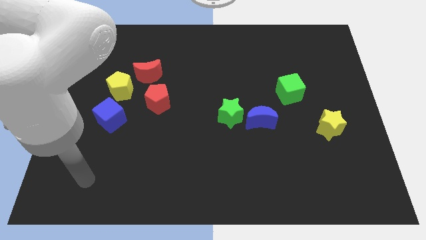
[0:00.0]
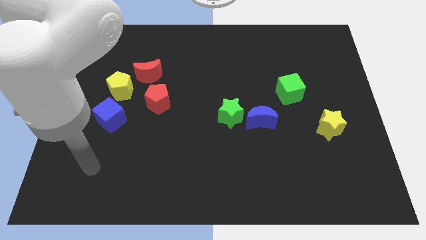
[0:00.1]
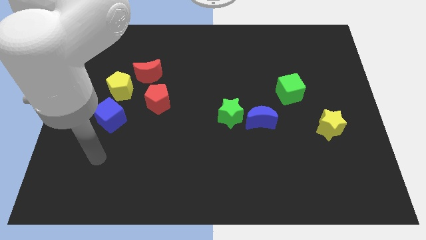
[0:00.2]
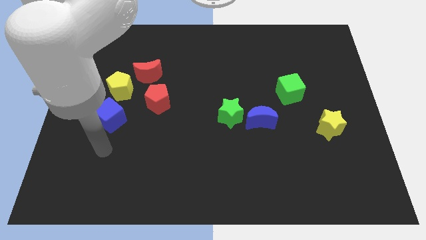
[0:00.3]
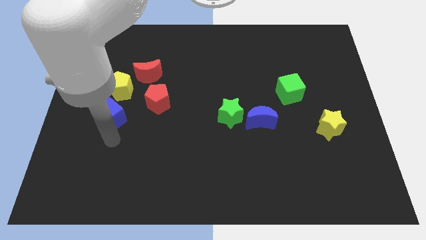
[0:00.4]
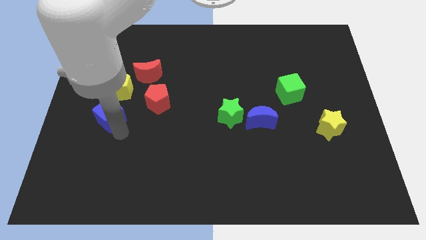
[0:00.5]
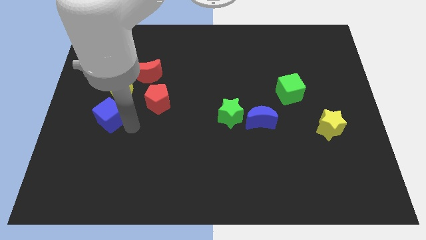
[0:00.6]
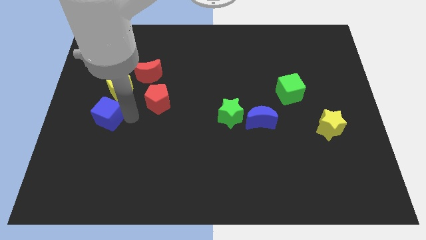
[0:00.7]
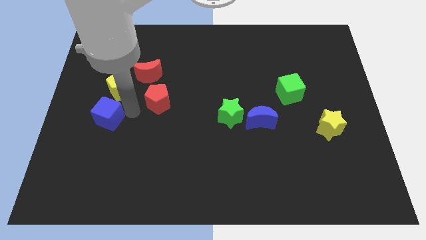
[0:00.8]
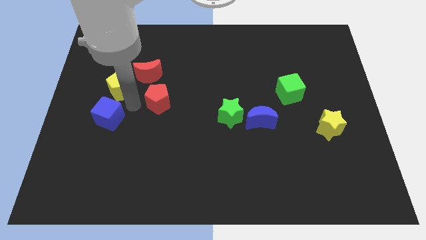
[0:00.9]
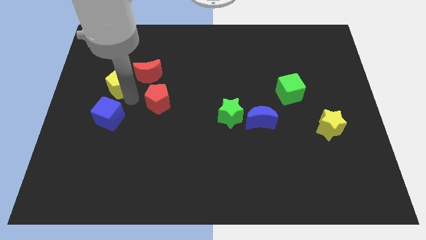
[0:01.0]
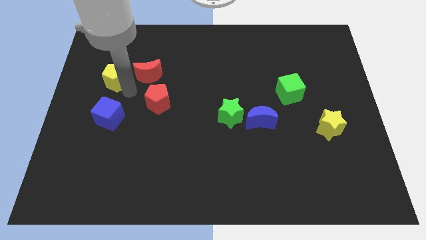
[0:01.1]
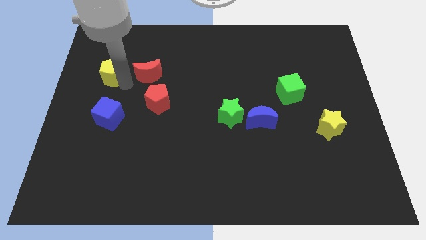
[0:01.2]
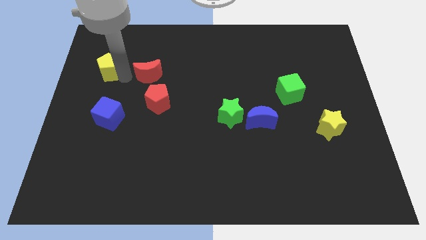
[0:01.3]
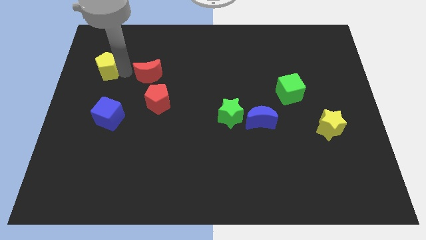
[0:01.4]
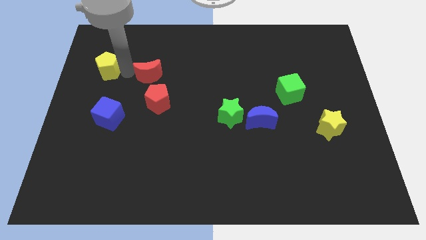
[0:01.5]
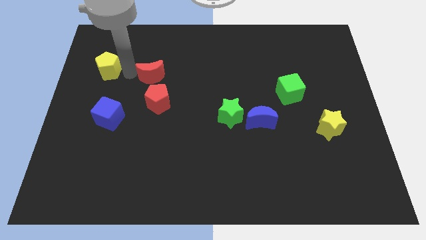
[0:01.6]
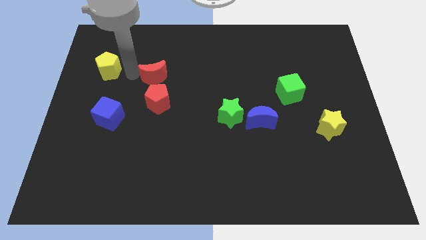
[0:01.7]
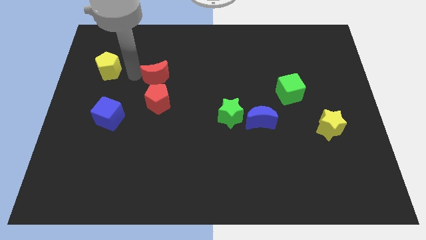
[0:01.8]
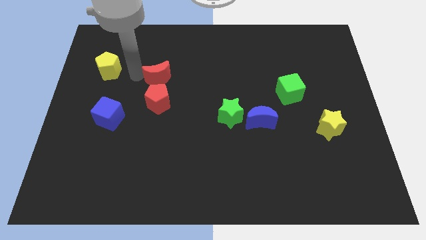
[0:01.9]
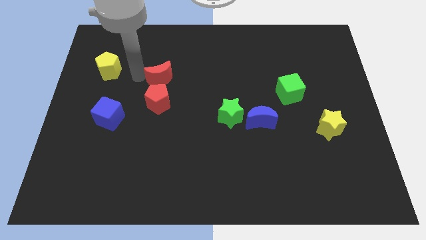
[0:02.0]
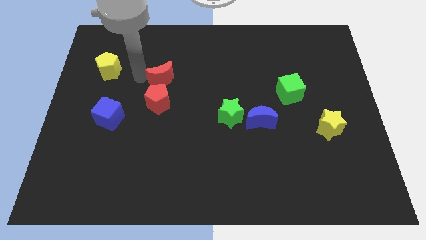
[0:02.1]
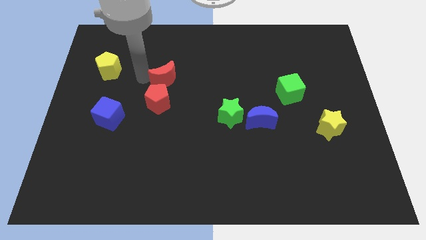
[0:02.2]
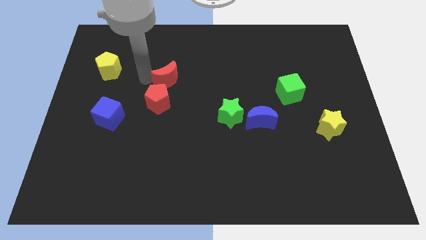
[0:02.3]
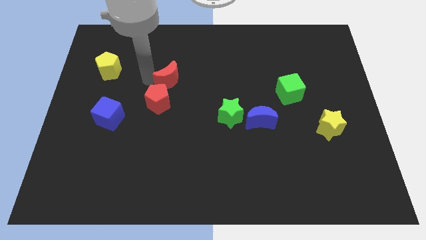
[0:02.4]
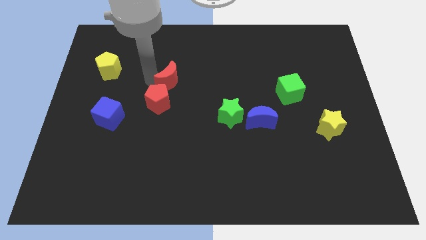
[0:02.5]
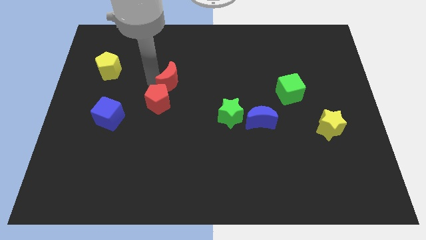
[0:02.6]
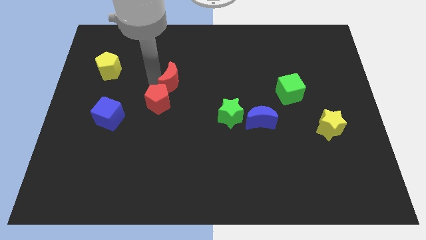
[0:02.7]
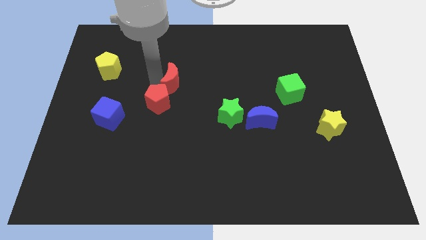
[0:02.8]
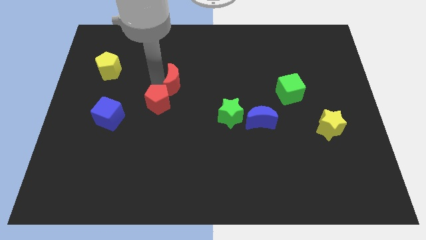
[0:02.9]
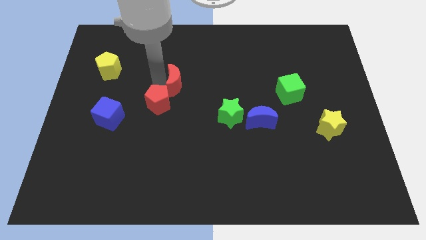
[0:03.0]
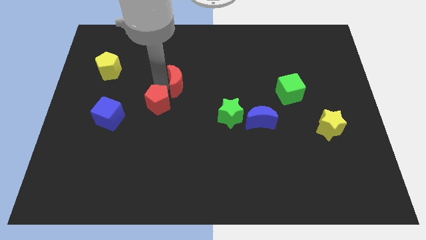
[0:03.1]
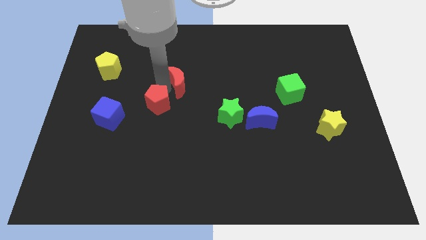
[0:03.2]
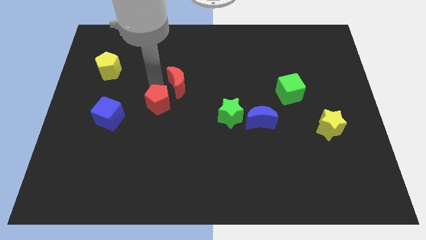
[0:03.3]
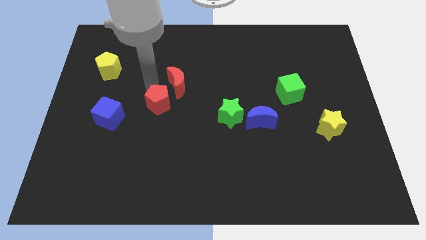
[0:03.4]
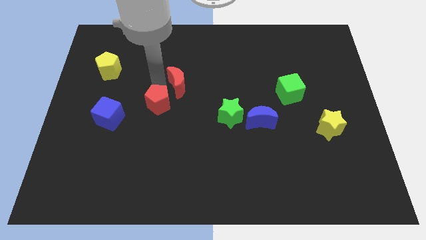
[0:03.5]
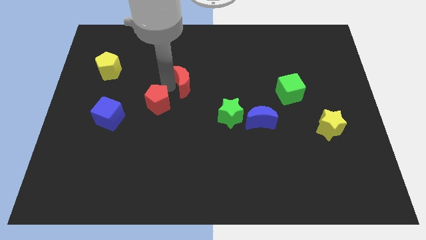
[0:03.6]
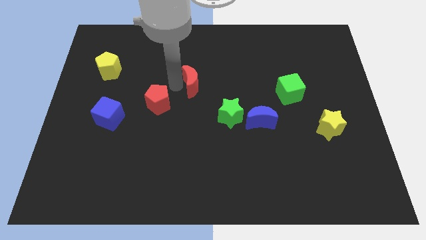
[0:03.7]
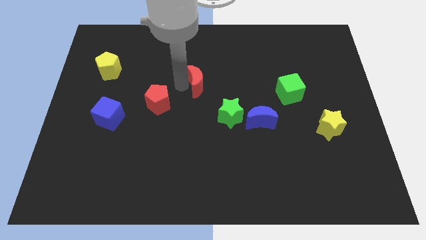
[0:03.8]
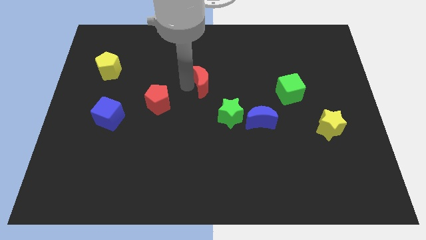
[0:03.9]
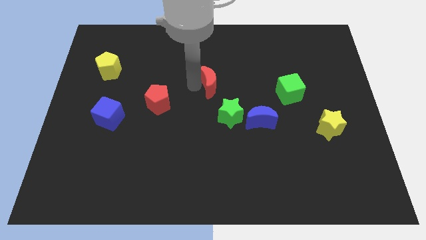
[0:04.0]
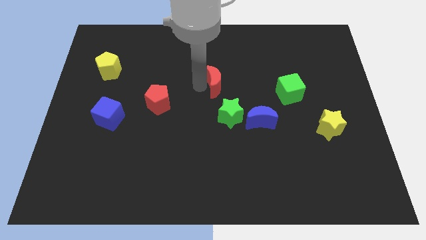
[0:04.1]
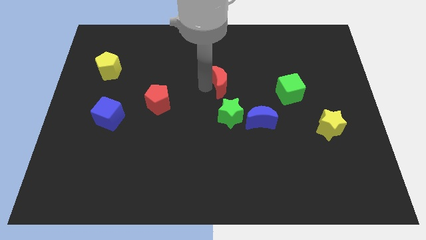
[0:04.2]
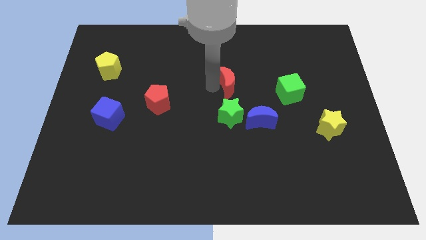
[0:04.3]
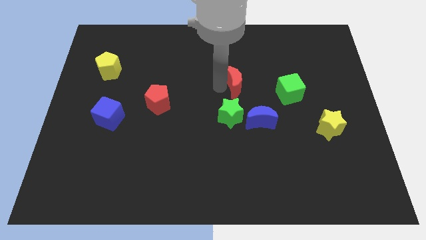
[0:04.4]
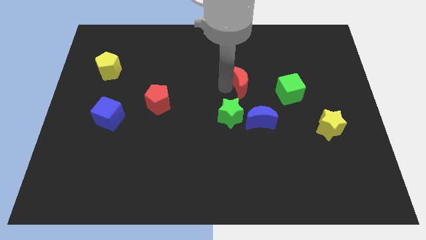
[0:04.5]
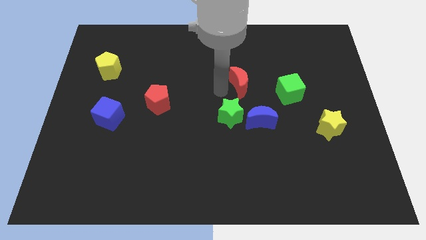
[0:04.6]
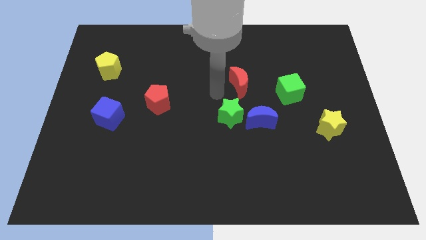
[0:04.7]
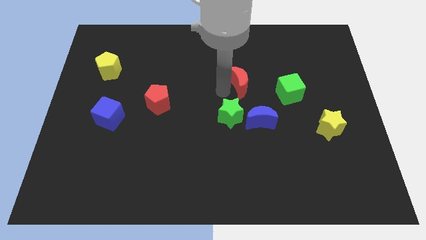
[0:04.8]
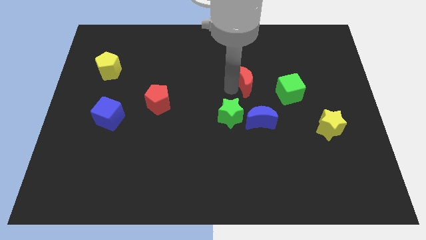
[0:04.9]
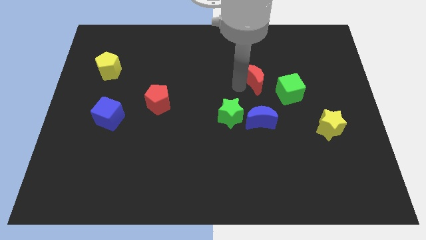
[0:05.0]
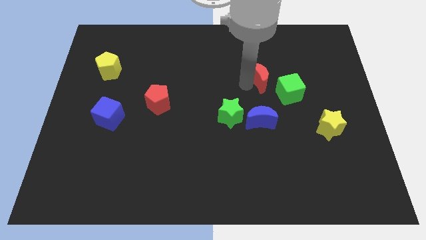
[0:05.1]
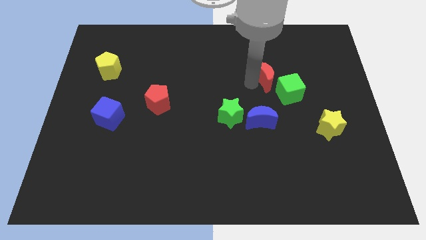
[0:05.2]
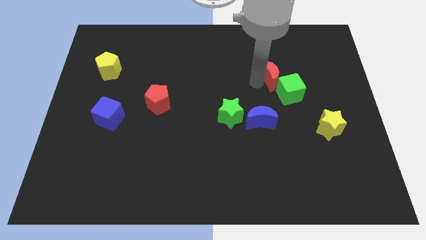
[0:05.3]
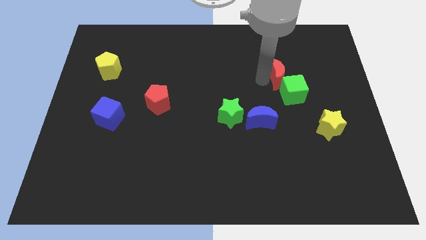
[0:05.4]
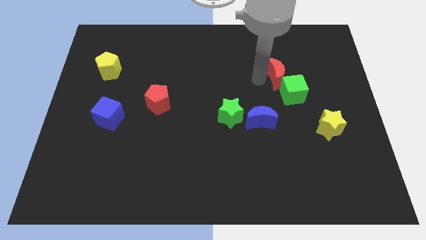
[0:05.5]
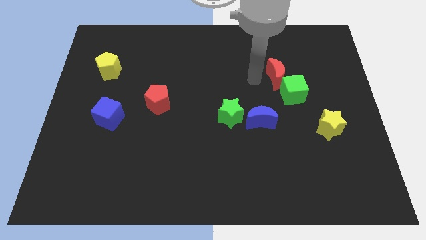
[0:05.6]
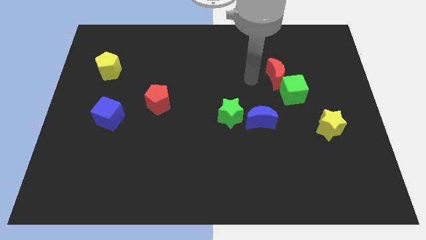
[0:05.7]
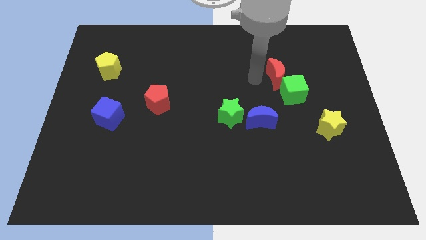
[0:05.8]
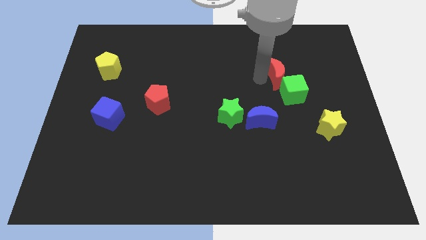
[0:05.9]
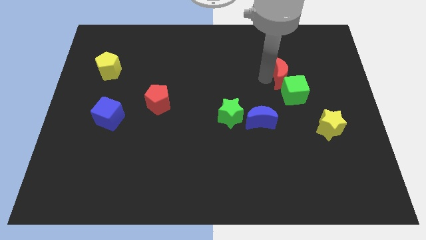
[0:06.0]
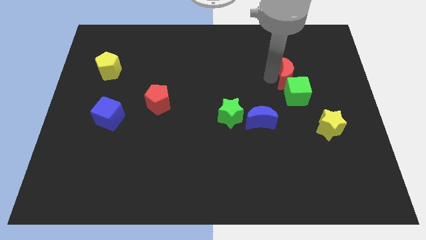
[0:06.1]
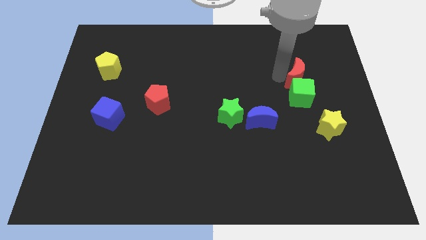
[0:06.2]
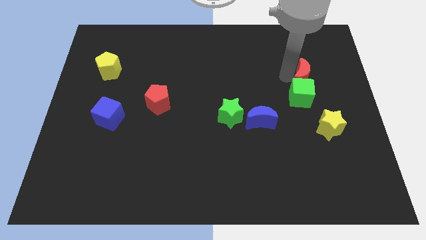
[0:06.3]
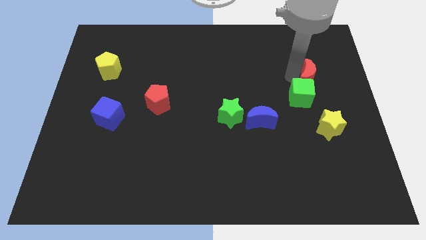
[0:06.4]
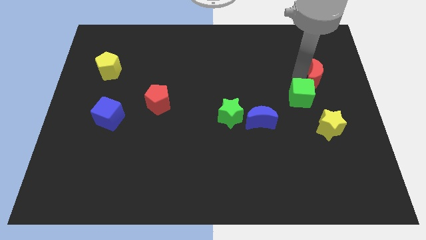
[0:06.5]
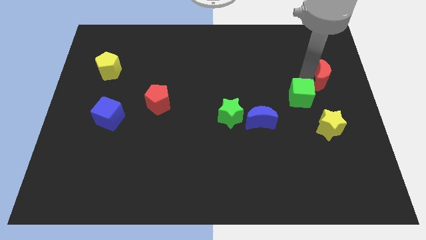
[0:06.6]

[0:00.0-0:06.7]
slide the red moon to the center right

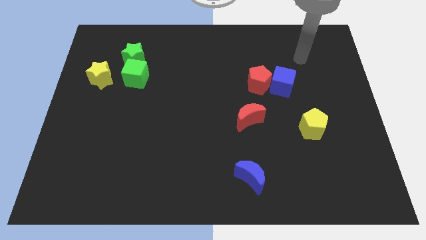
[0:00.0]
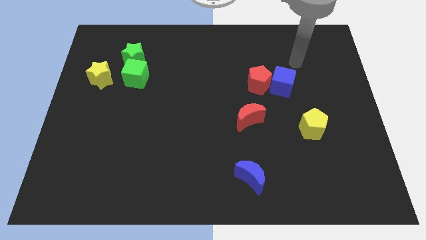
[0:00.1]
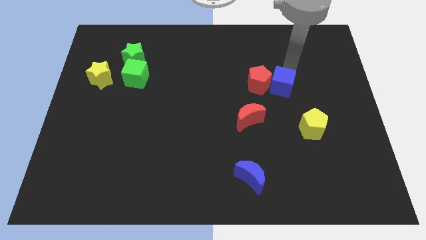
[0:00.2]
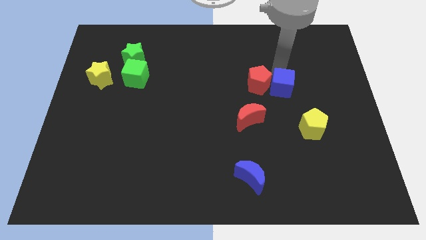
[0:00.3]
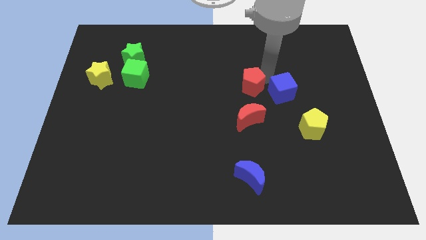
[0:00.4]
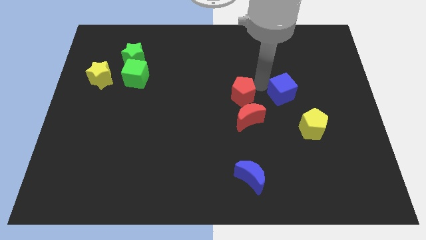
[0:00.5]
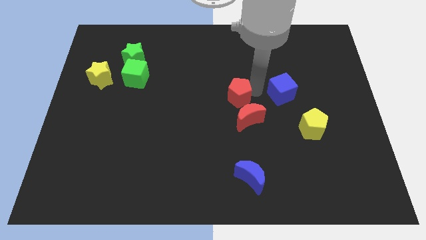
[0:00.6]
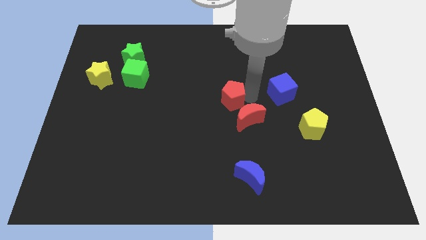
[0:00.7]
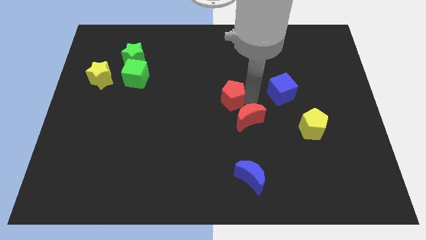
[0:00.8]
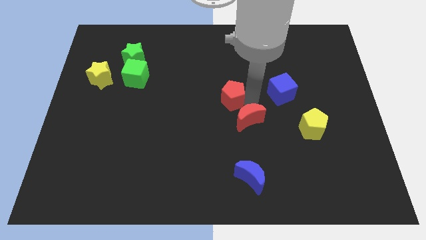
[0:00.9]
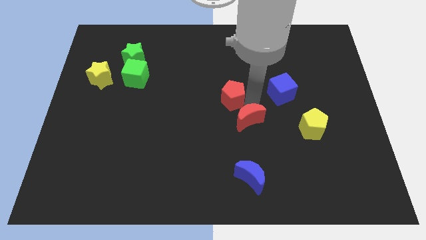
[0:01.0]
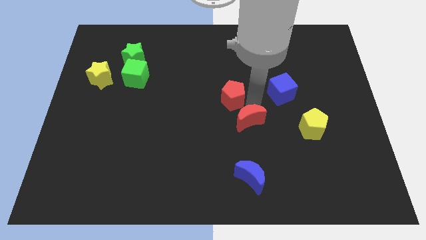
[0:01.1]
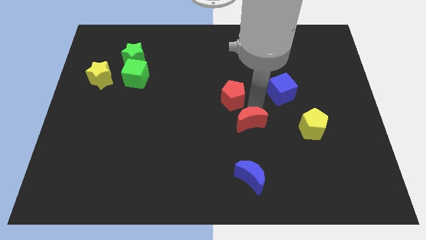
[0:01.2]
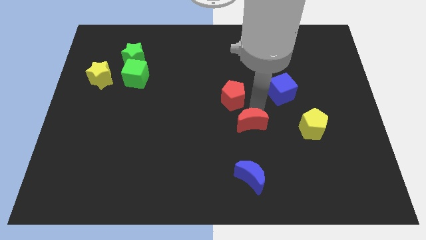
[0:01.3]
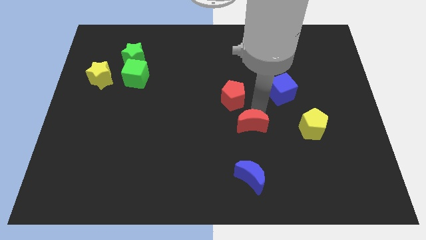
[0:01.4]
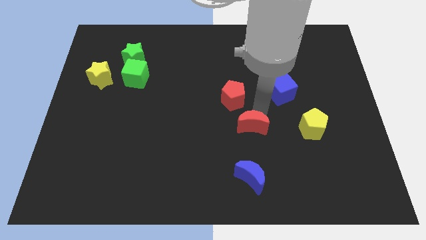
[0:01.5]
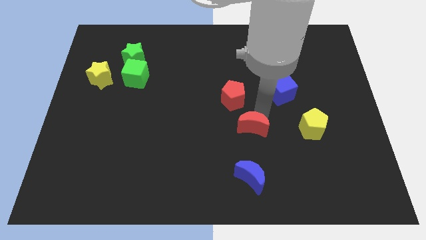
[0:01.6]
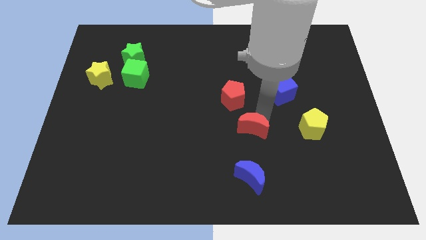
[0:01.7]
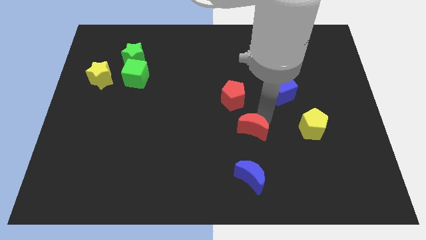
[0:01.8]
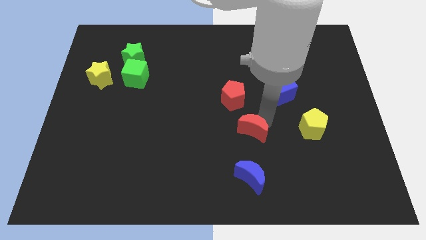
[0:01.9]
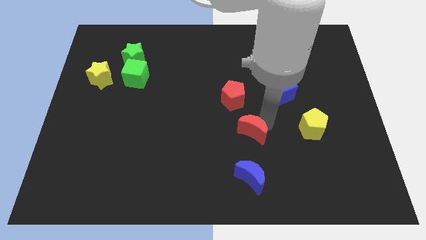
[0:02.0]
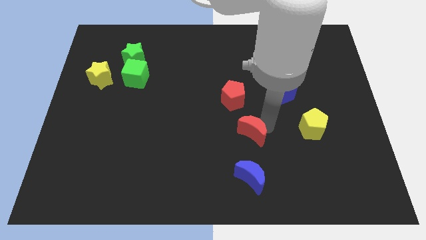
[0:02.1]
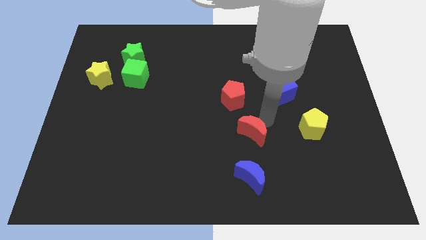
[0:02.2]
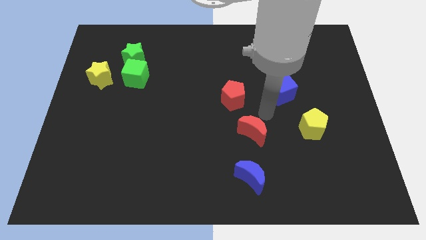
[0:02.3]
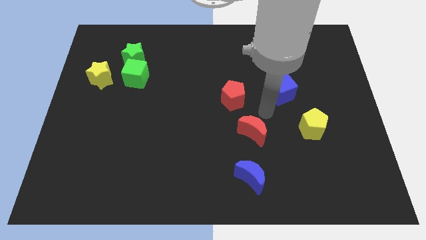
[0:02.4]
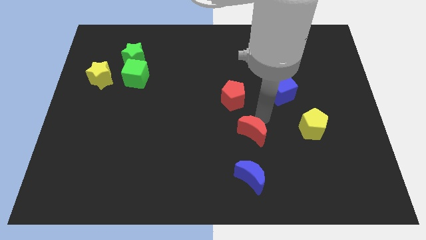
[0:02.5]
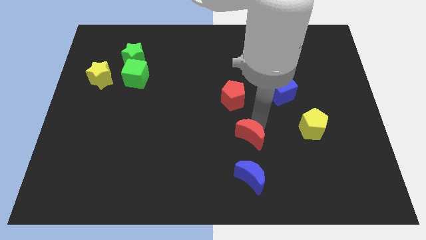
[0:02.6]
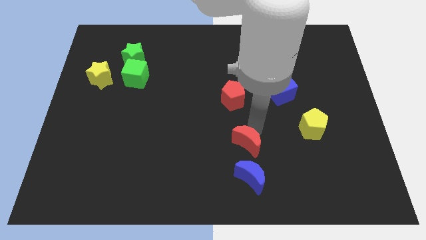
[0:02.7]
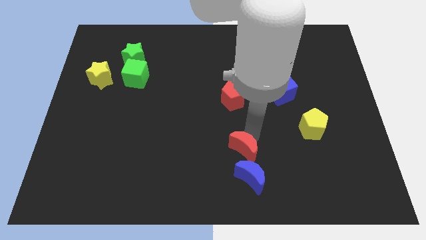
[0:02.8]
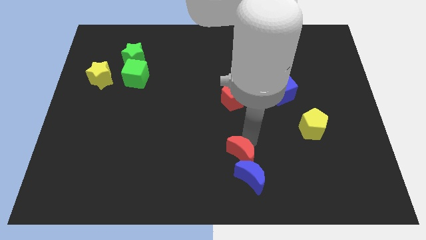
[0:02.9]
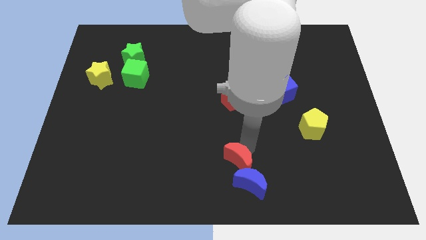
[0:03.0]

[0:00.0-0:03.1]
slide the red moon to the bottom
